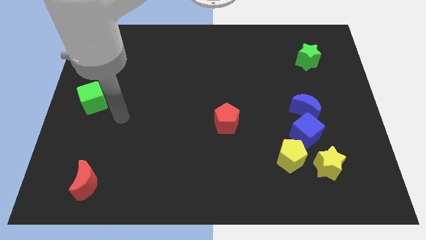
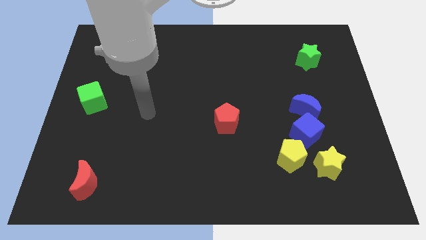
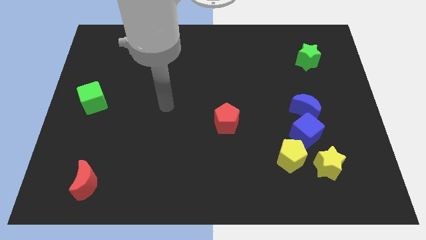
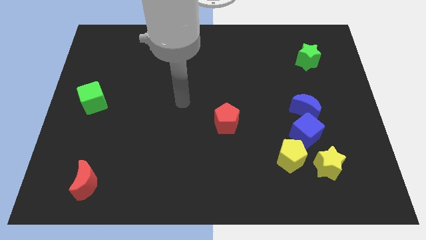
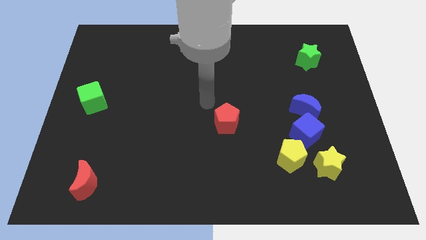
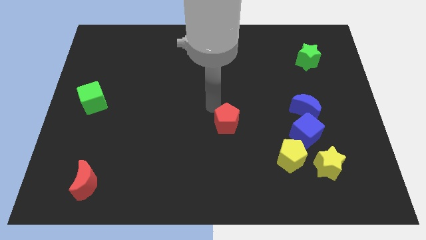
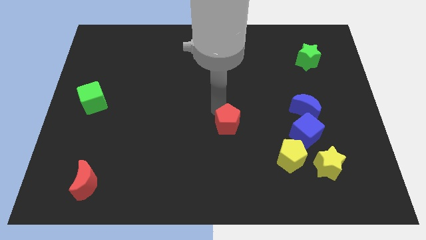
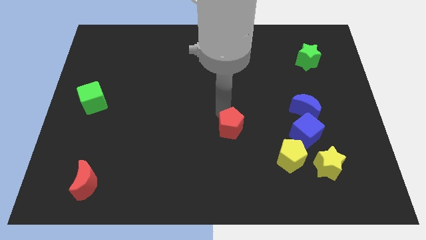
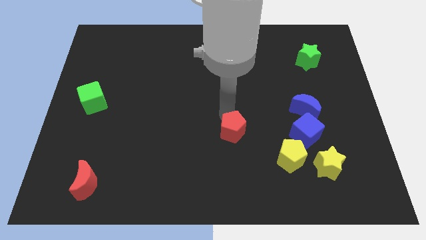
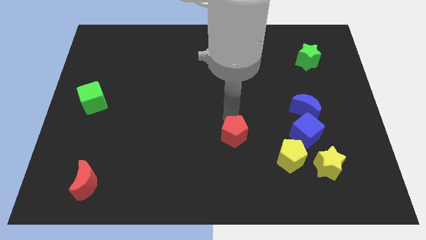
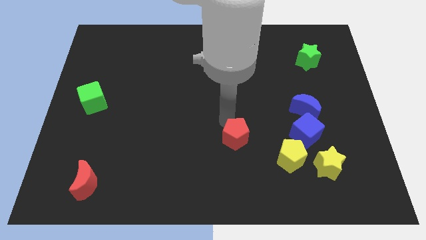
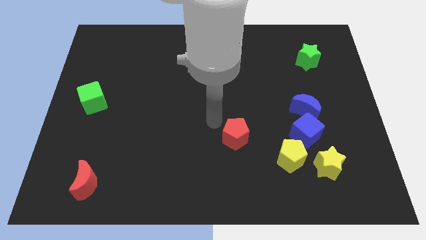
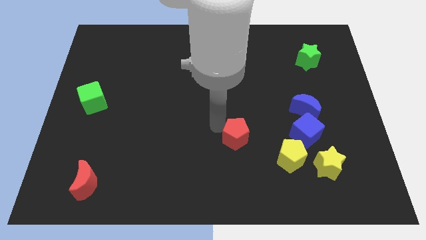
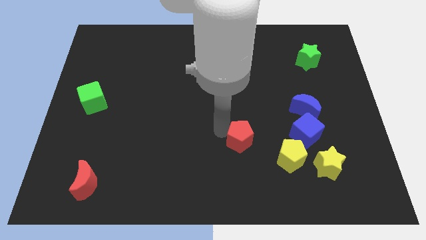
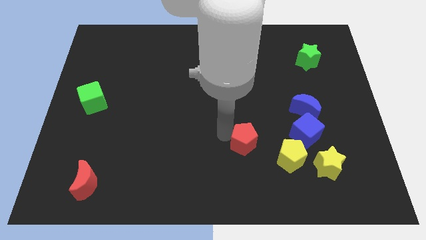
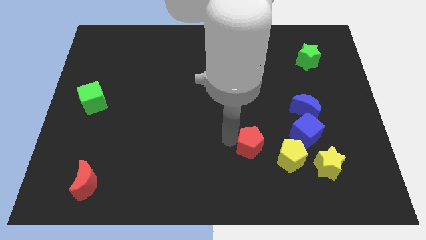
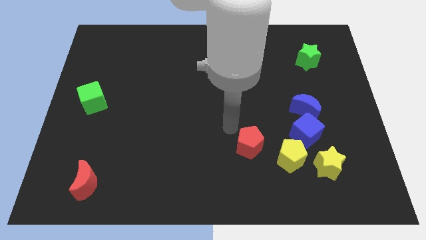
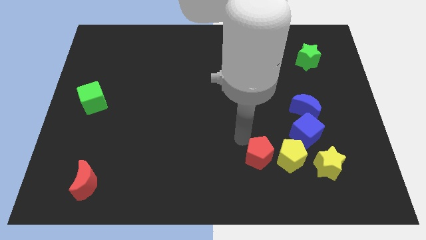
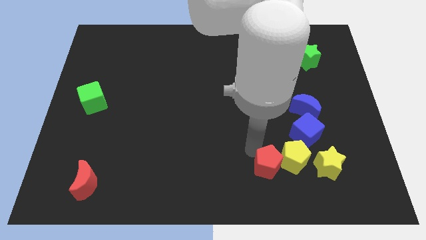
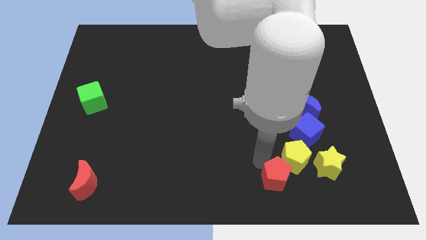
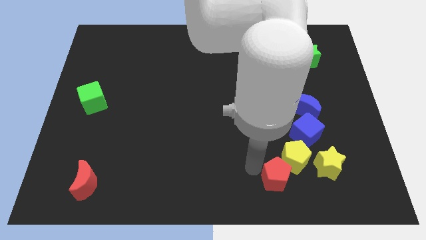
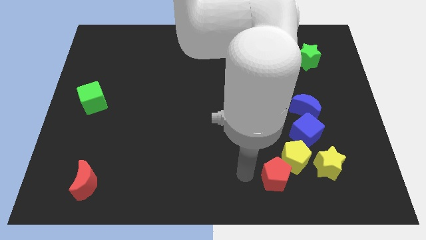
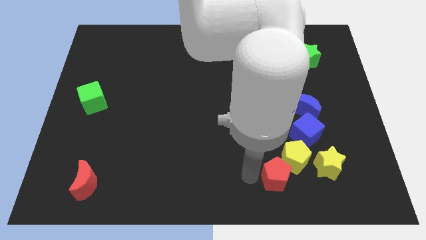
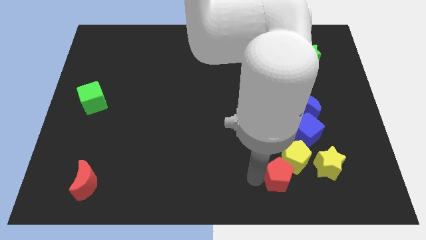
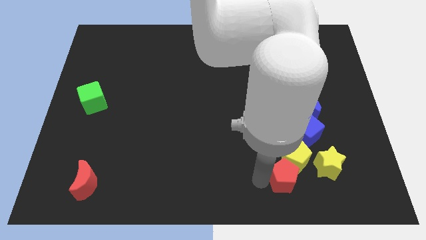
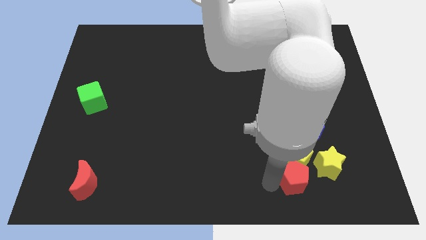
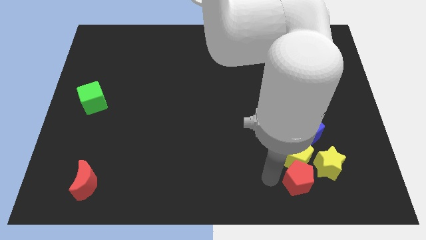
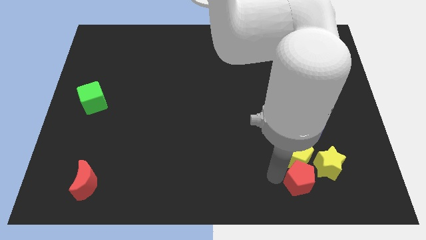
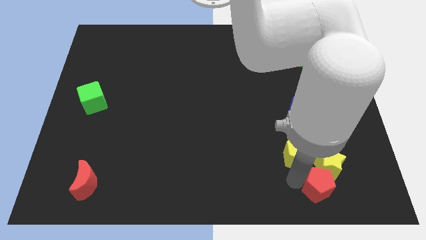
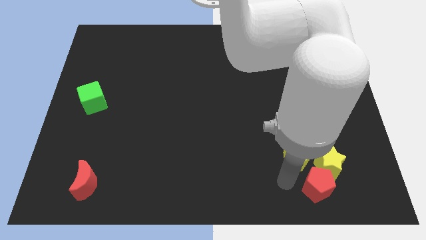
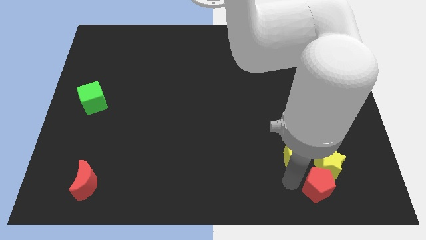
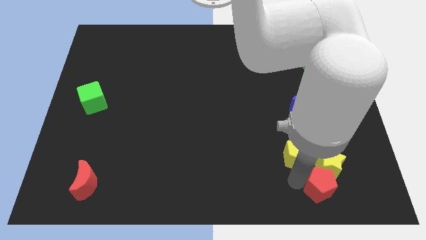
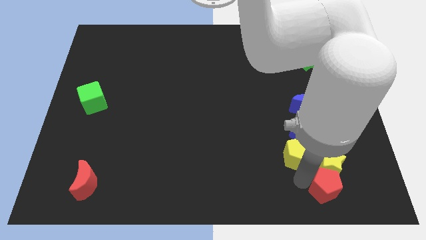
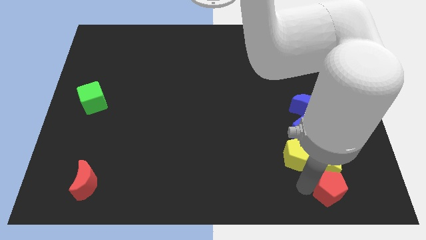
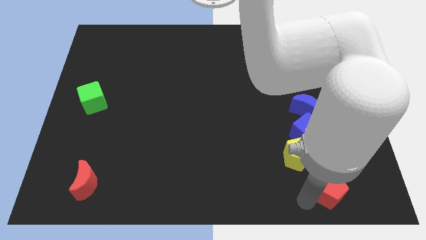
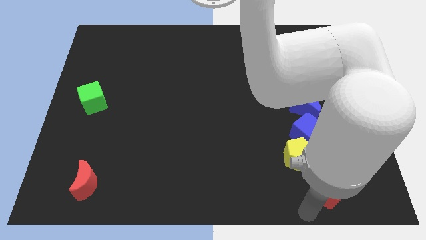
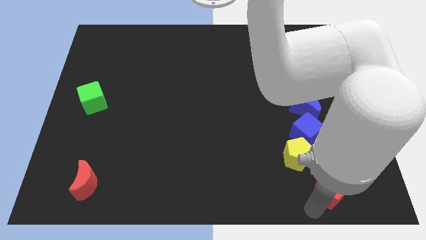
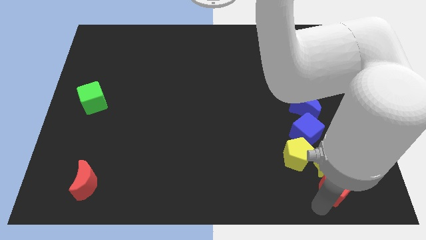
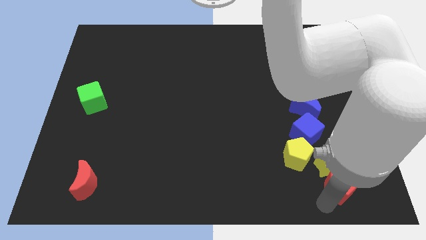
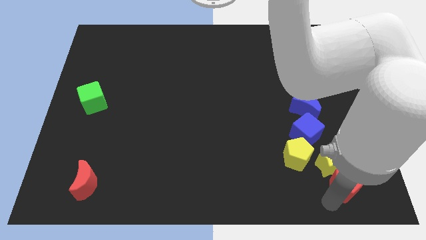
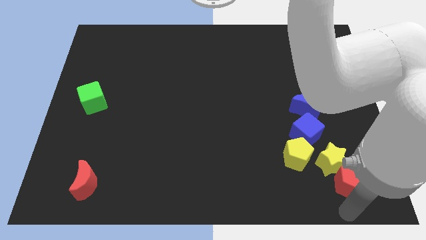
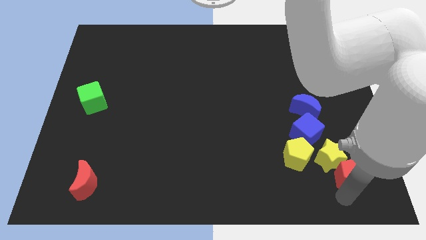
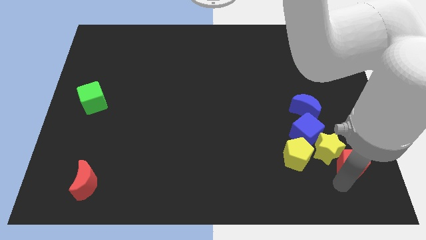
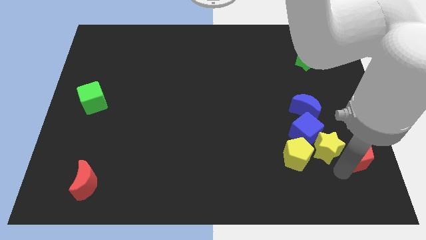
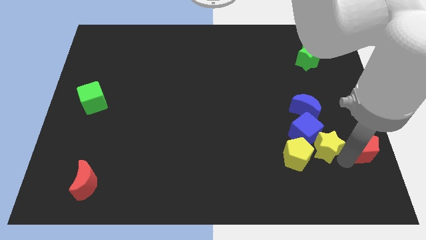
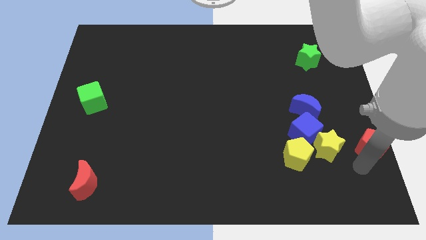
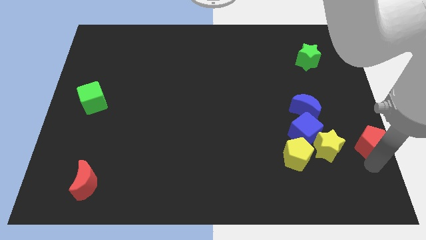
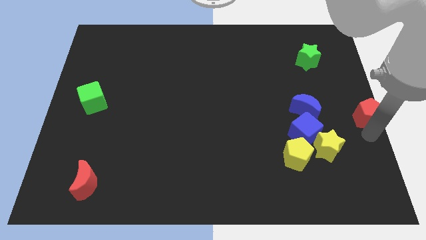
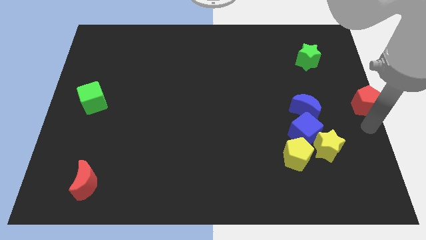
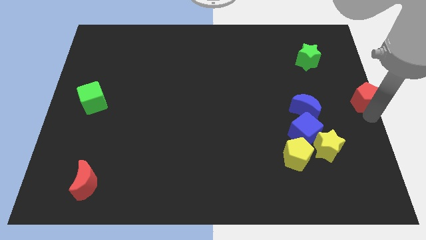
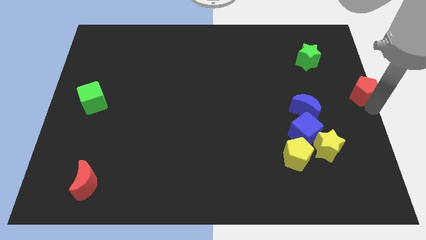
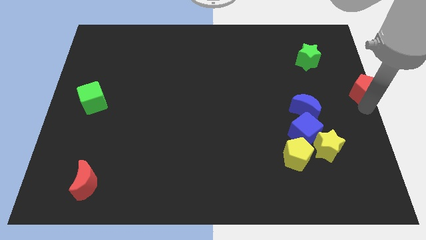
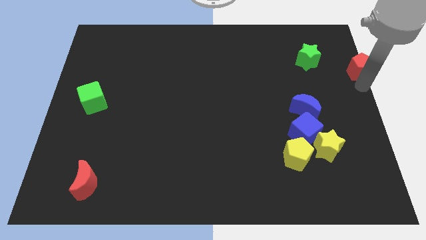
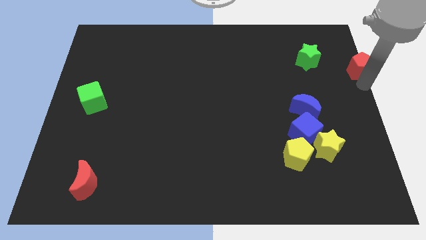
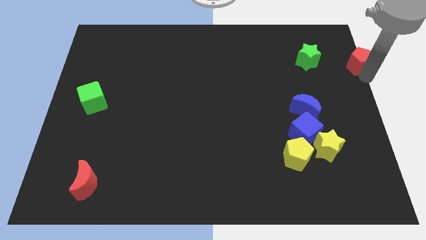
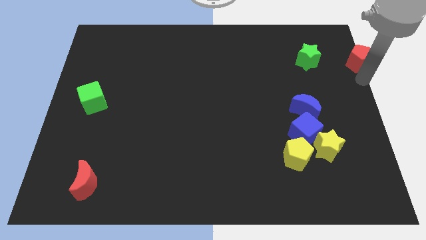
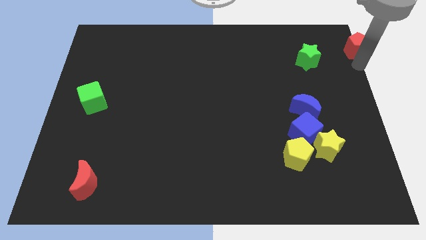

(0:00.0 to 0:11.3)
move the red pentagon to the top right of the board

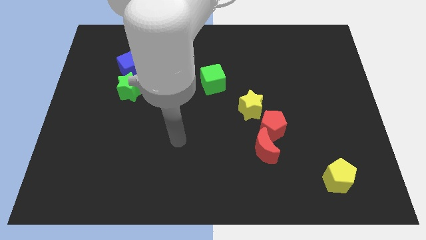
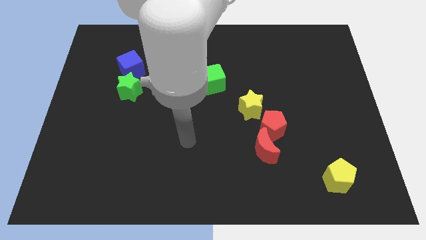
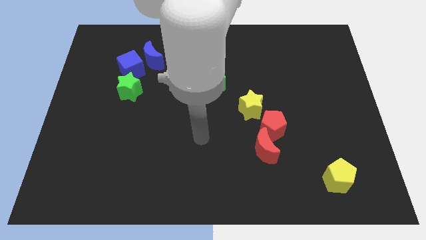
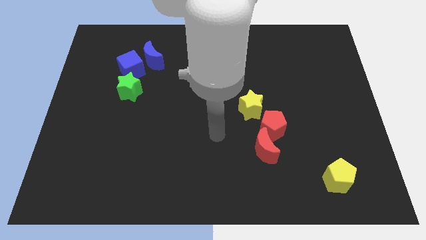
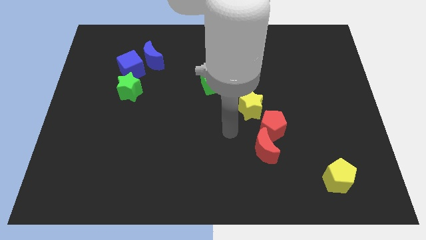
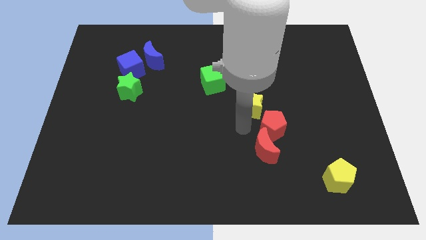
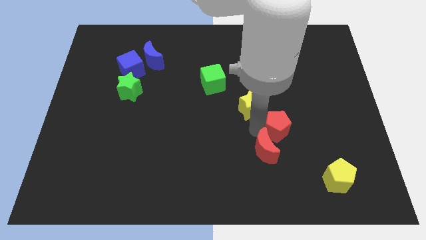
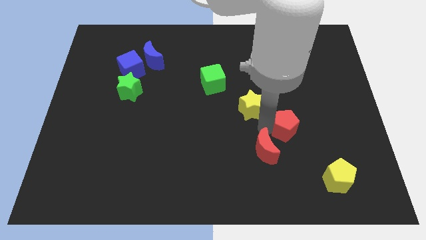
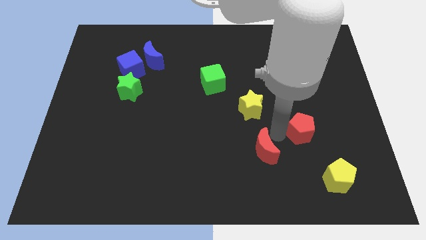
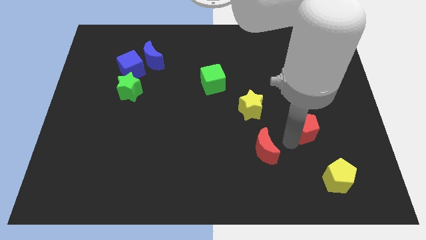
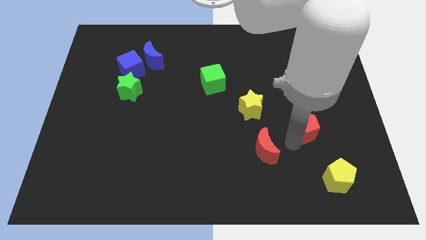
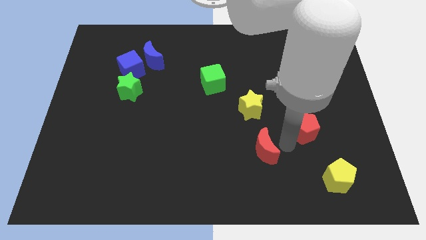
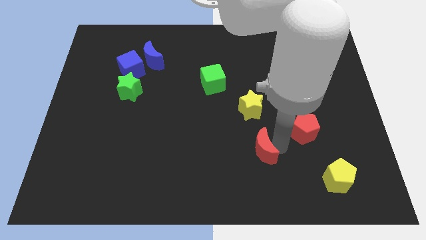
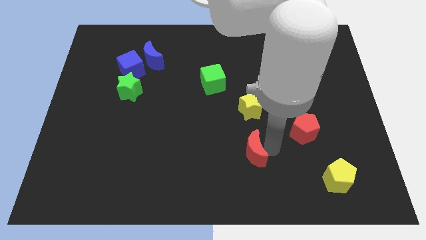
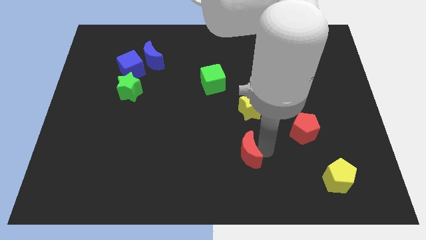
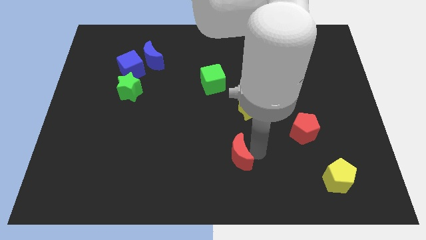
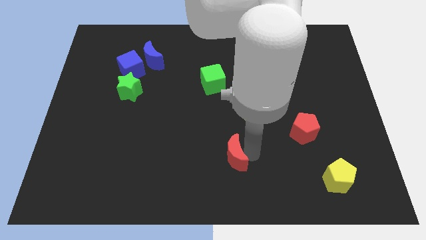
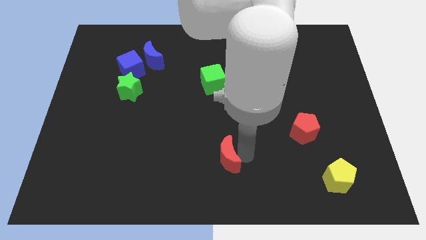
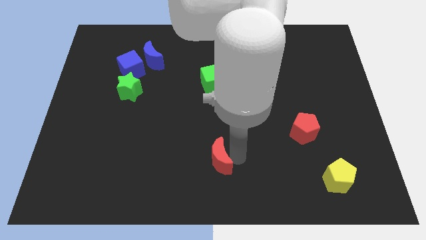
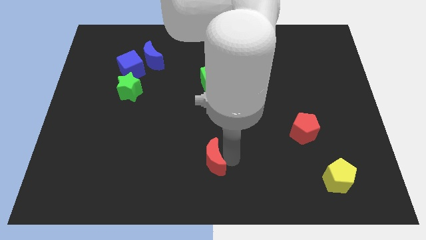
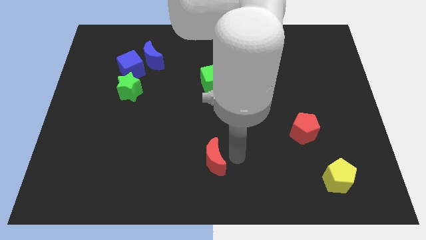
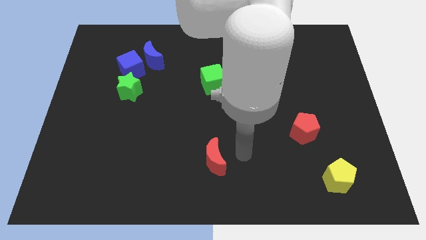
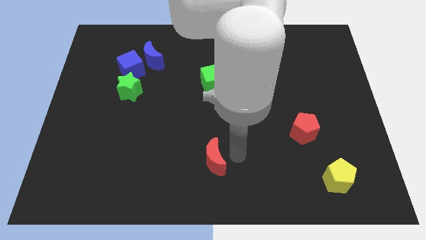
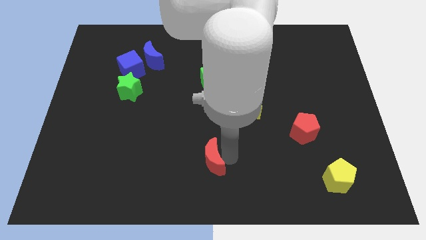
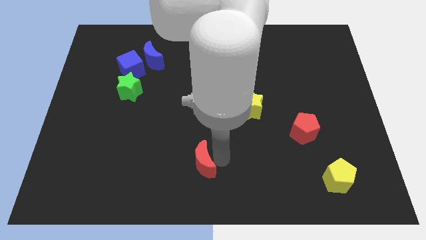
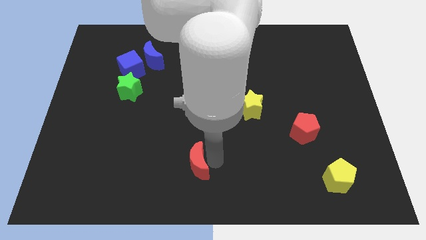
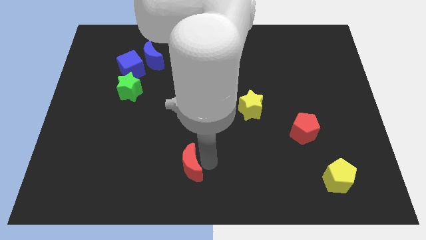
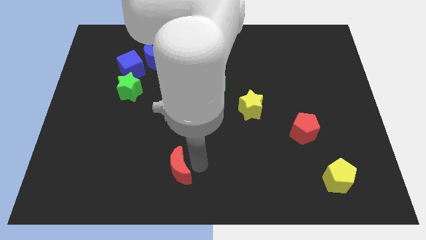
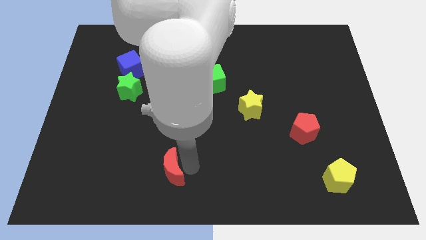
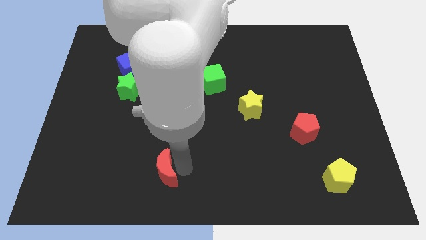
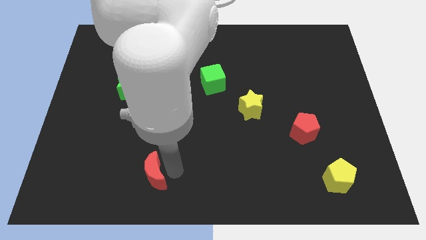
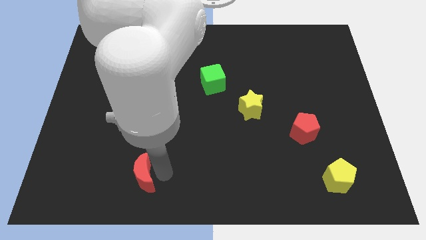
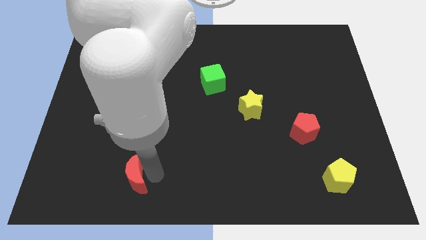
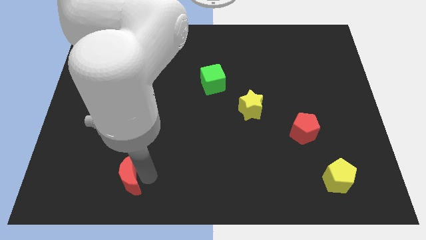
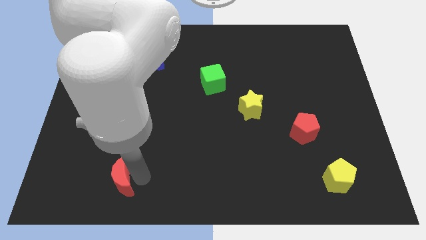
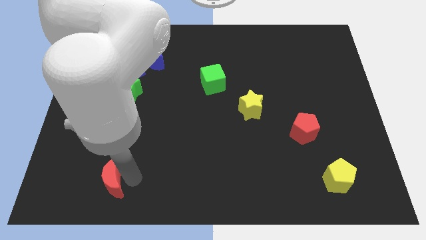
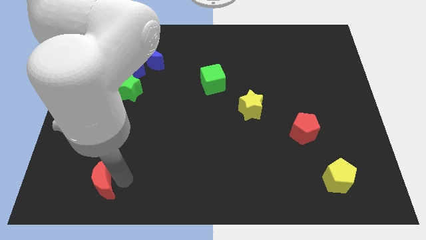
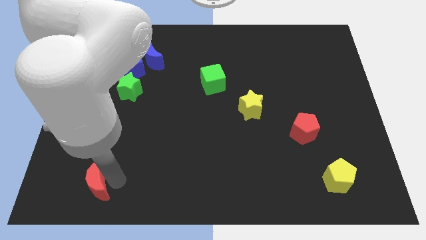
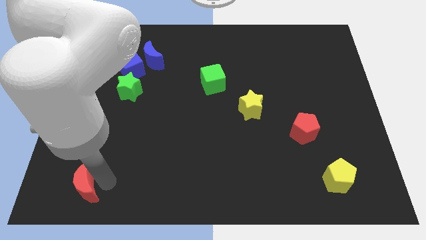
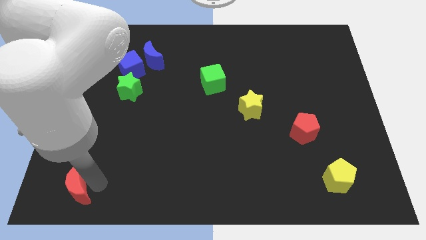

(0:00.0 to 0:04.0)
put the red moon to the bottom left
